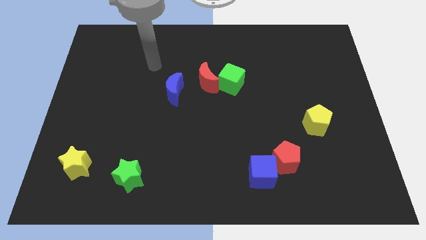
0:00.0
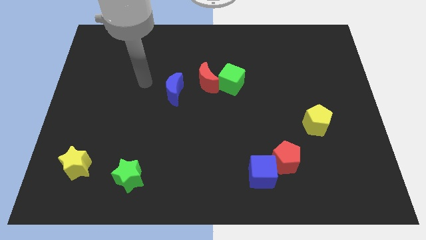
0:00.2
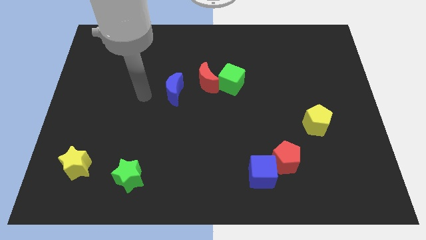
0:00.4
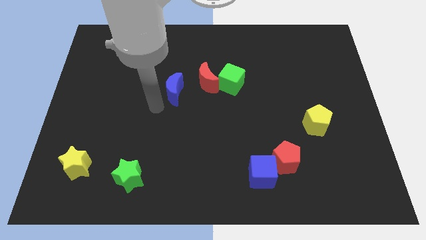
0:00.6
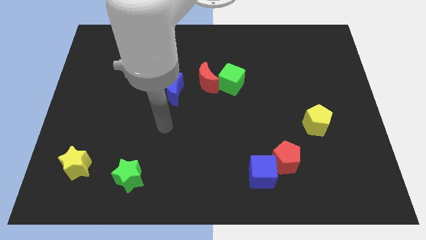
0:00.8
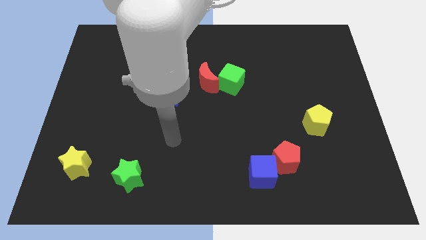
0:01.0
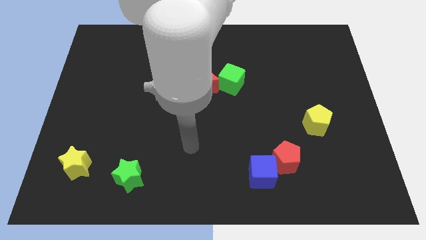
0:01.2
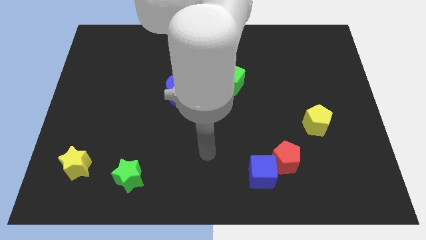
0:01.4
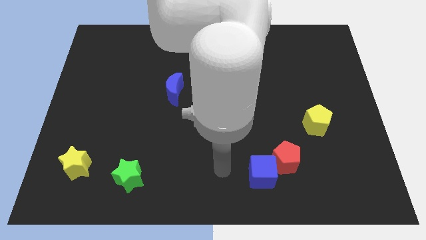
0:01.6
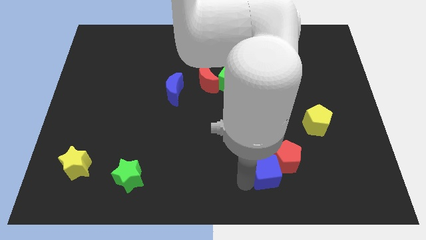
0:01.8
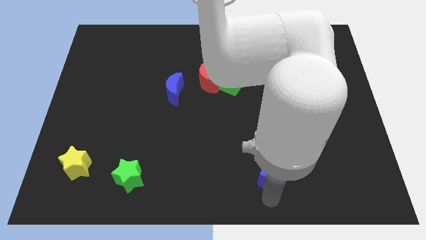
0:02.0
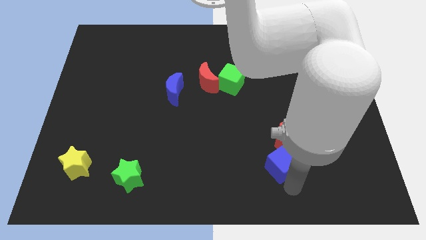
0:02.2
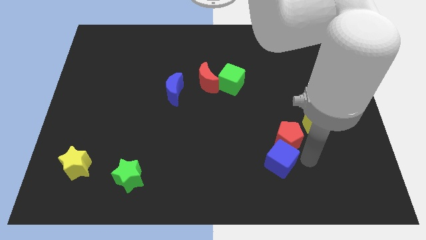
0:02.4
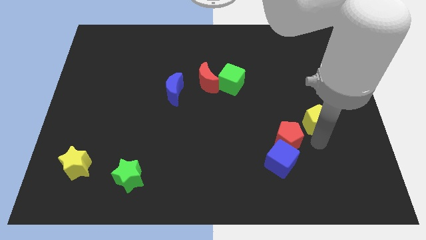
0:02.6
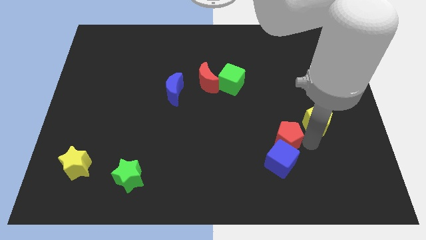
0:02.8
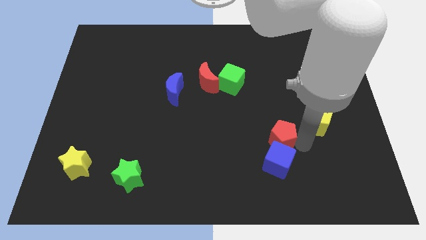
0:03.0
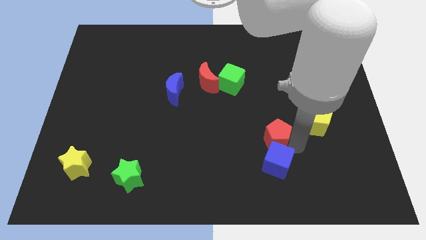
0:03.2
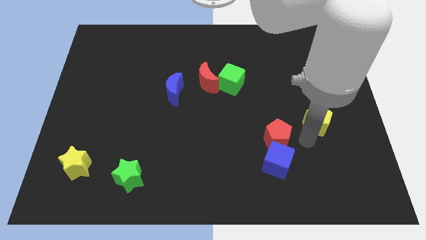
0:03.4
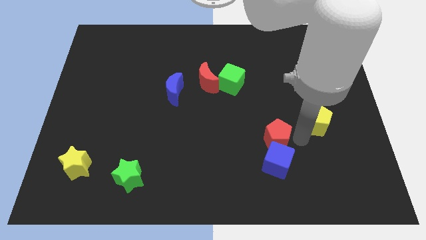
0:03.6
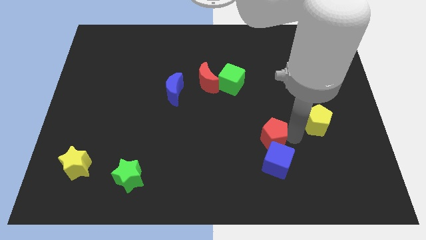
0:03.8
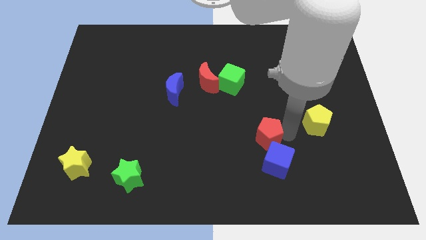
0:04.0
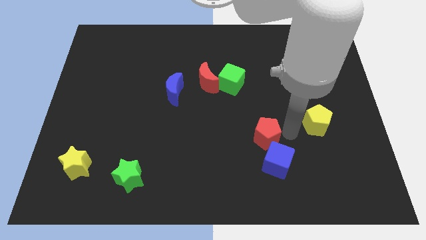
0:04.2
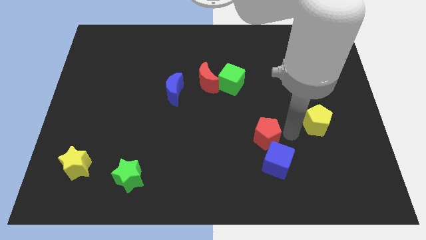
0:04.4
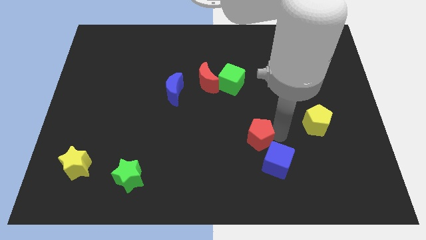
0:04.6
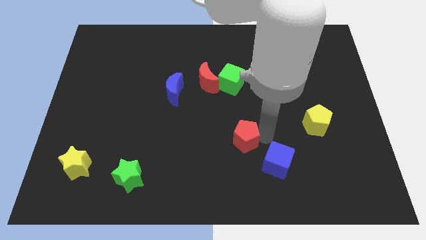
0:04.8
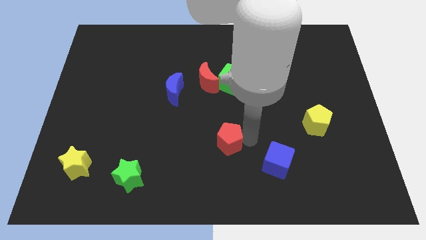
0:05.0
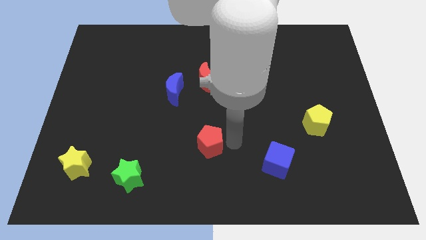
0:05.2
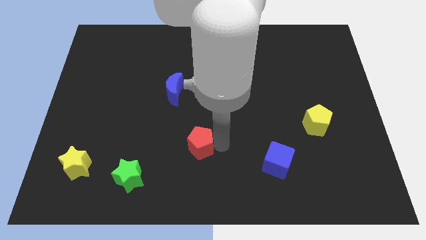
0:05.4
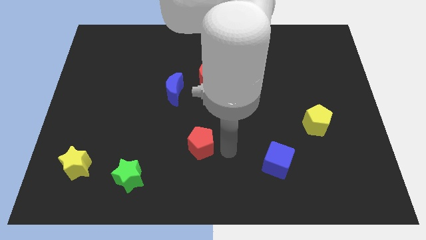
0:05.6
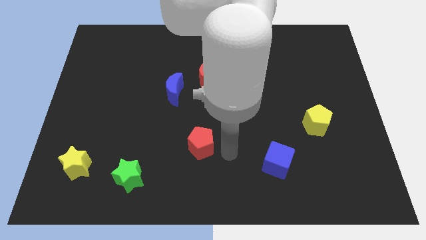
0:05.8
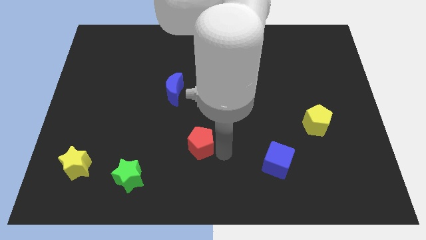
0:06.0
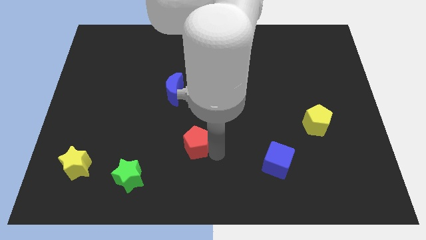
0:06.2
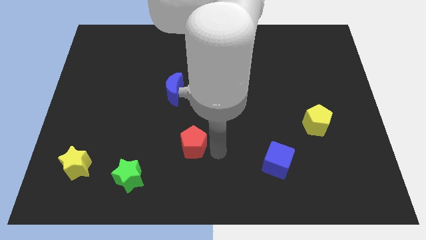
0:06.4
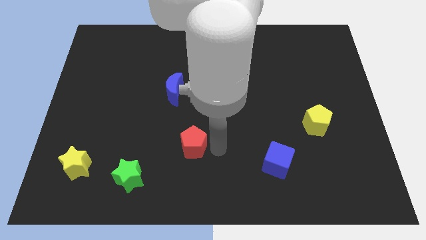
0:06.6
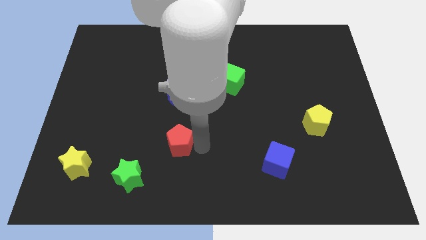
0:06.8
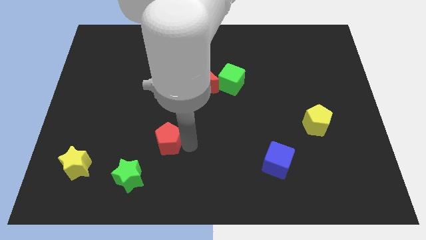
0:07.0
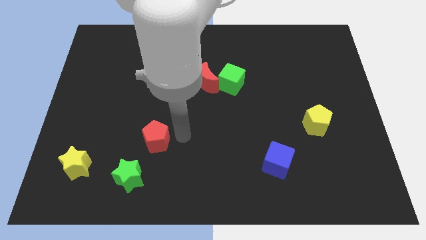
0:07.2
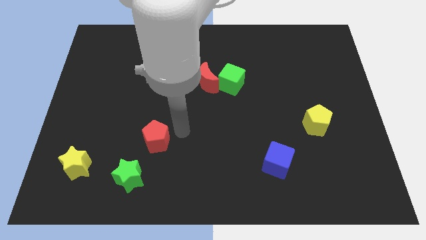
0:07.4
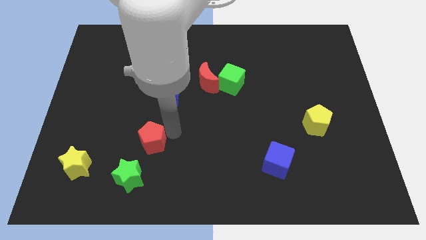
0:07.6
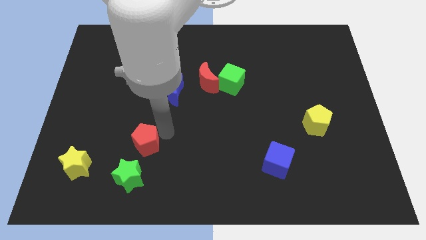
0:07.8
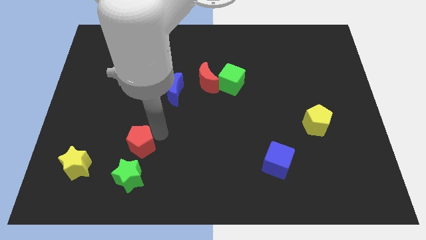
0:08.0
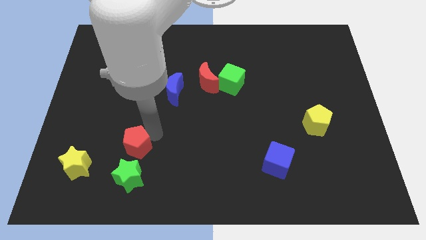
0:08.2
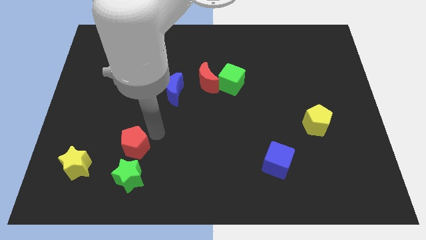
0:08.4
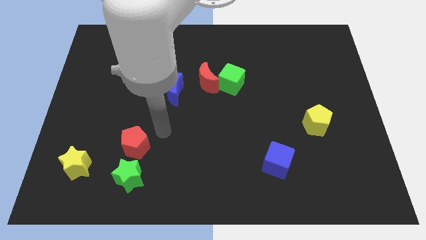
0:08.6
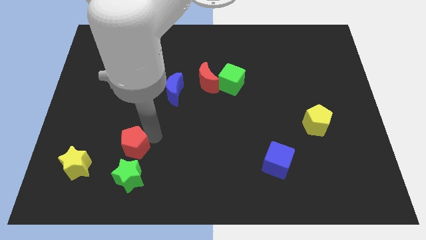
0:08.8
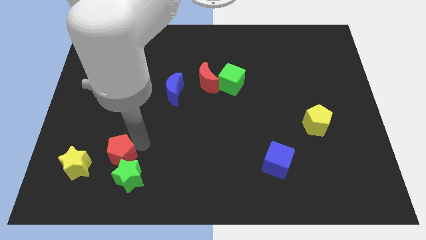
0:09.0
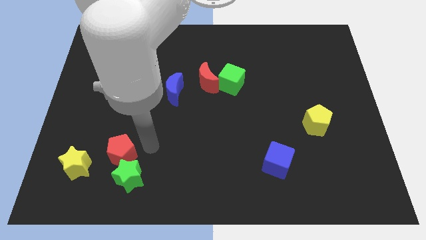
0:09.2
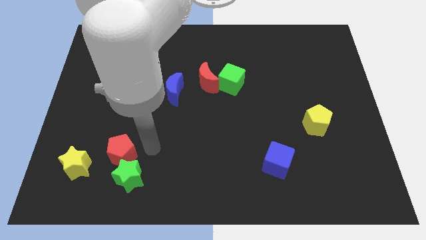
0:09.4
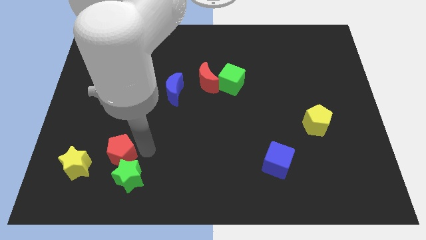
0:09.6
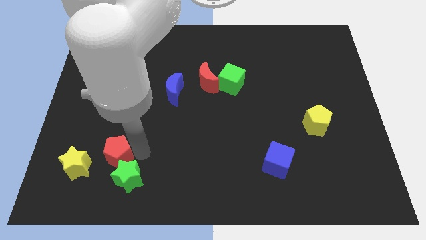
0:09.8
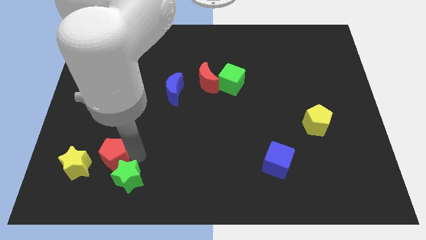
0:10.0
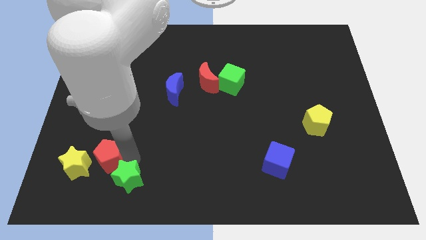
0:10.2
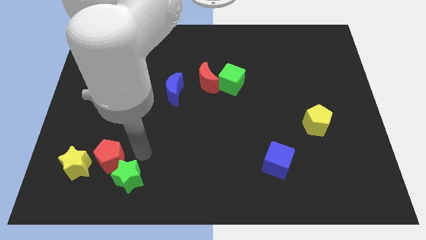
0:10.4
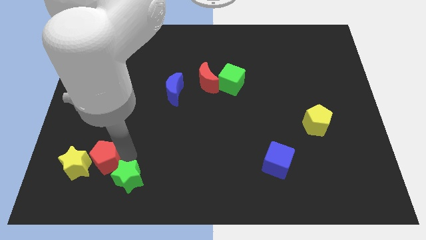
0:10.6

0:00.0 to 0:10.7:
slide the red pentagon towards the yellow star
